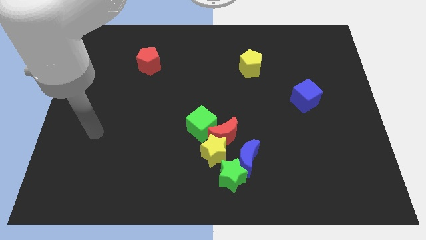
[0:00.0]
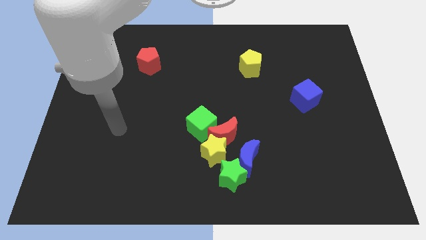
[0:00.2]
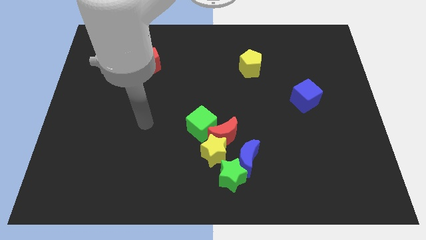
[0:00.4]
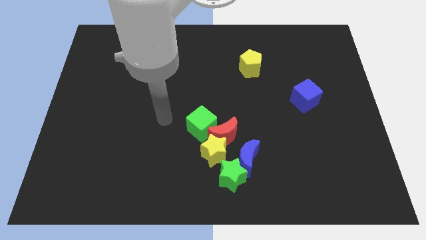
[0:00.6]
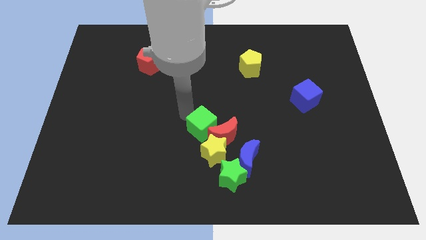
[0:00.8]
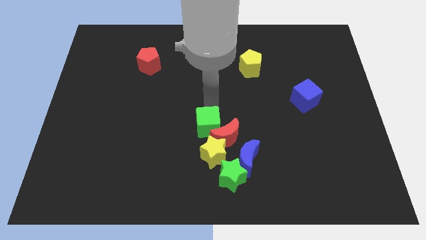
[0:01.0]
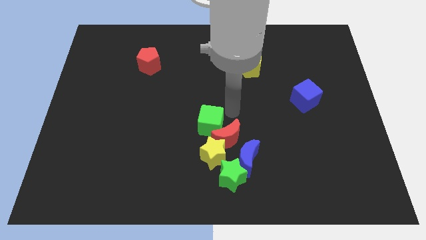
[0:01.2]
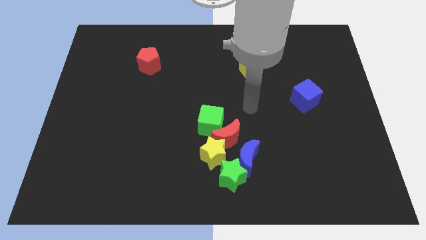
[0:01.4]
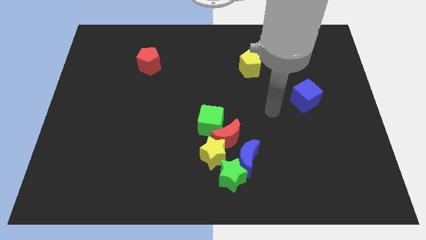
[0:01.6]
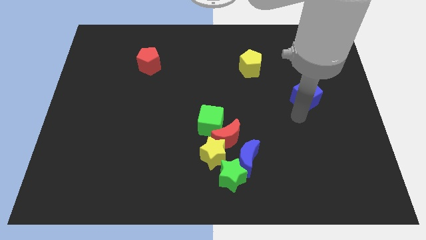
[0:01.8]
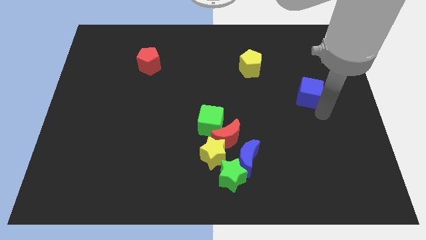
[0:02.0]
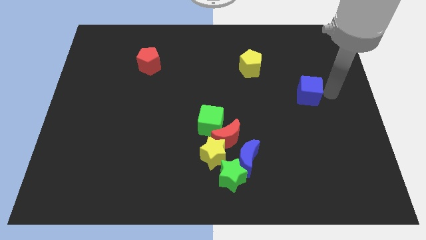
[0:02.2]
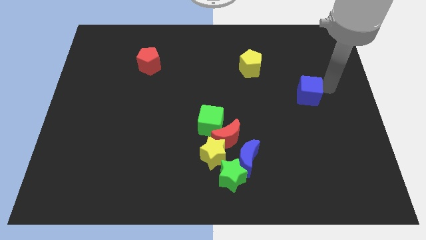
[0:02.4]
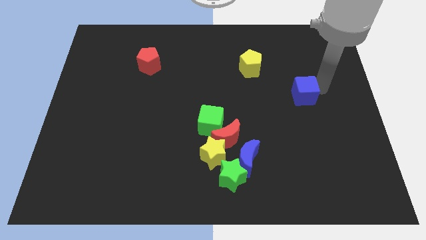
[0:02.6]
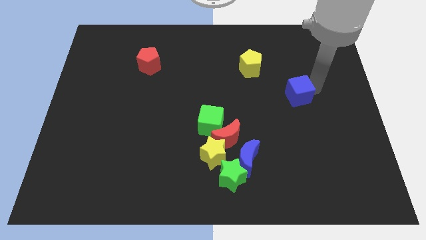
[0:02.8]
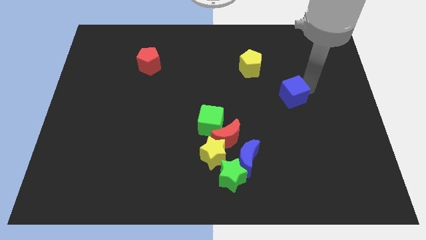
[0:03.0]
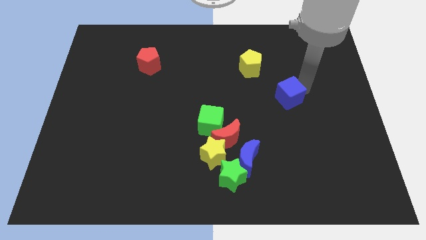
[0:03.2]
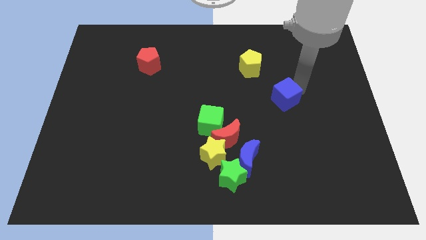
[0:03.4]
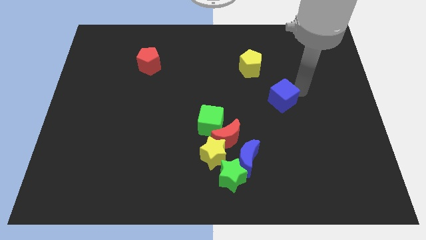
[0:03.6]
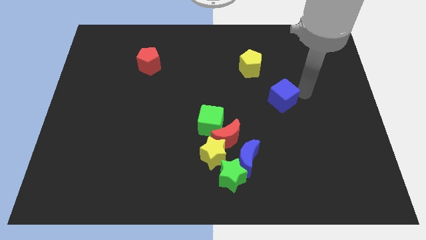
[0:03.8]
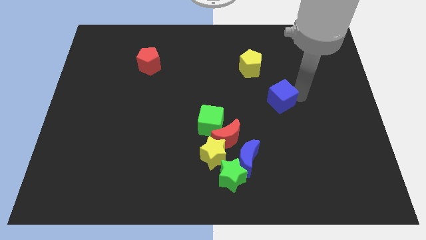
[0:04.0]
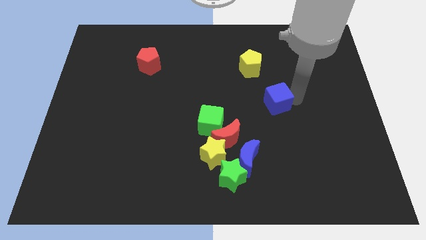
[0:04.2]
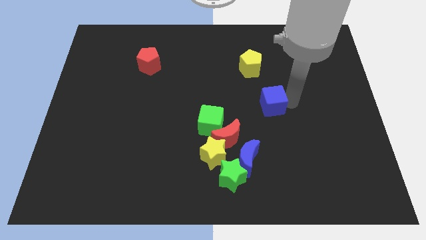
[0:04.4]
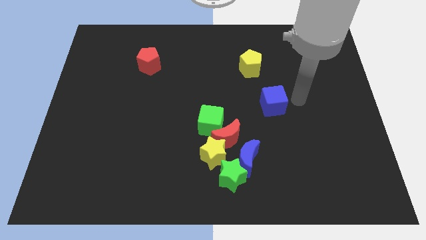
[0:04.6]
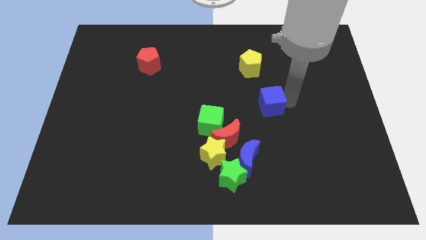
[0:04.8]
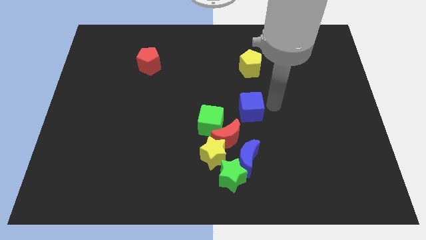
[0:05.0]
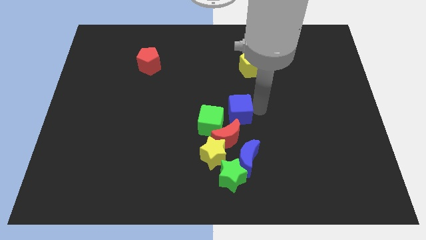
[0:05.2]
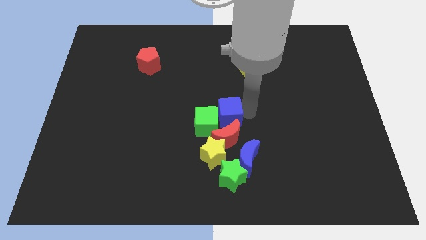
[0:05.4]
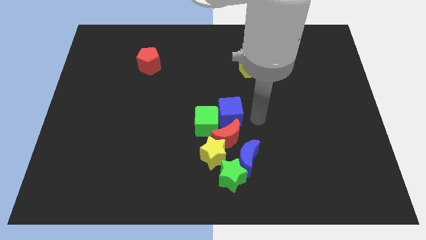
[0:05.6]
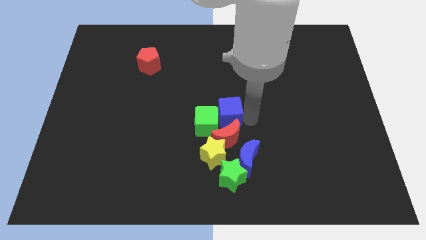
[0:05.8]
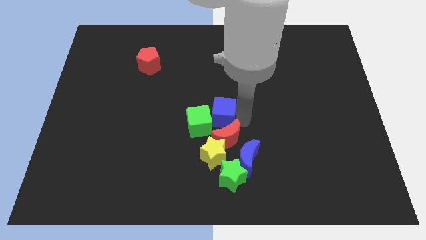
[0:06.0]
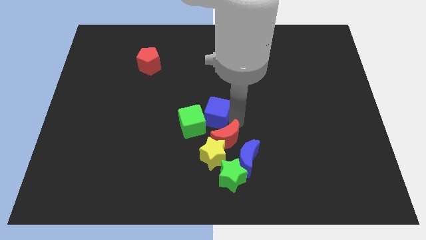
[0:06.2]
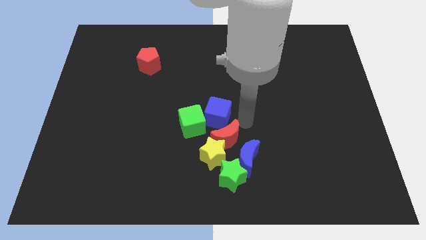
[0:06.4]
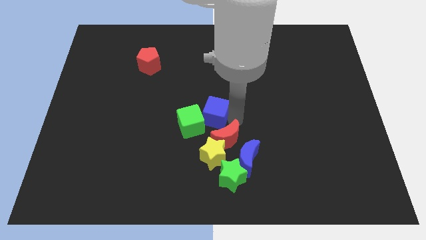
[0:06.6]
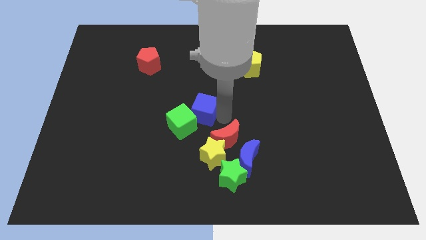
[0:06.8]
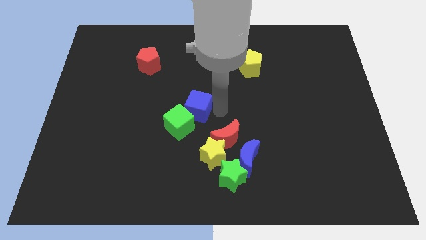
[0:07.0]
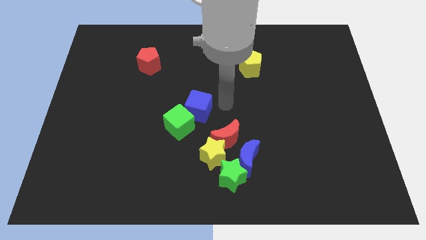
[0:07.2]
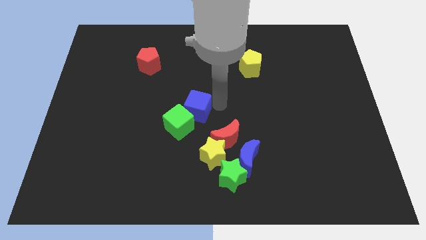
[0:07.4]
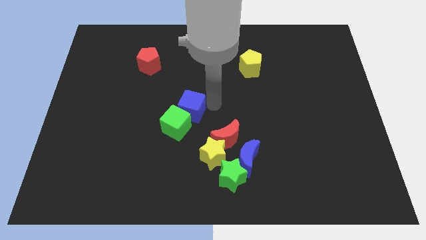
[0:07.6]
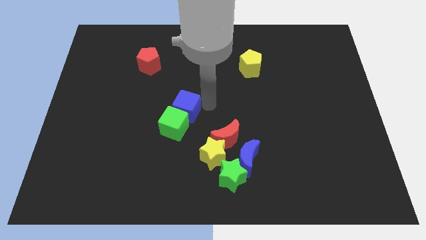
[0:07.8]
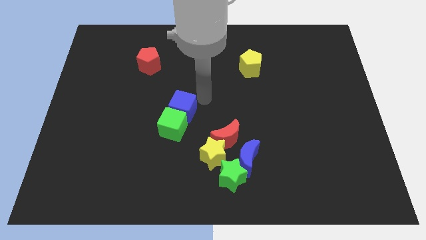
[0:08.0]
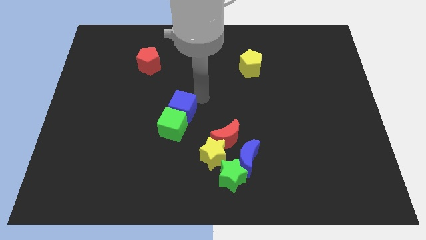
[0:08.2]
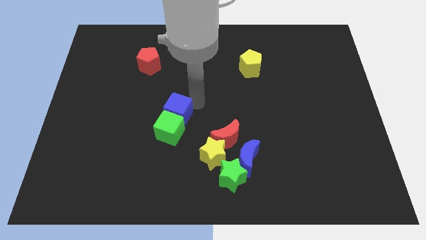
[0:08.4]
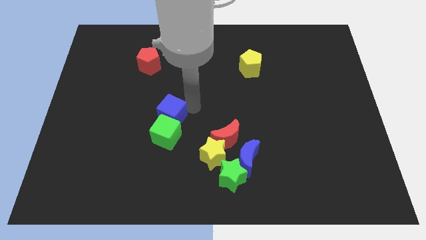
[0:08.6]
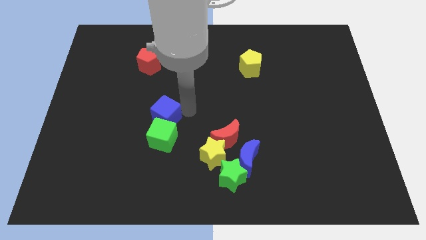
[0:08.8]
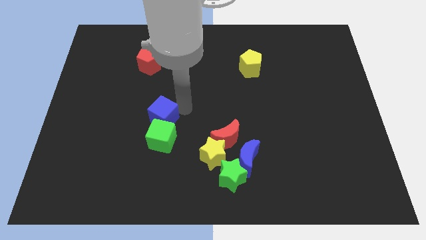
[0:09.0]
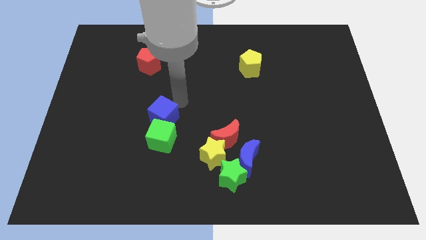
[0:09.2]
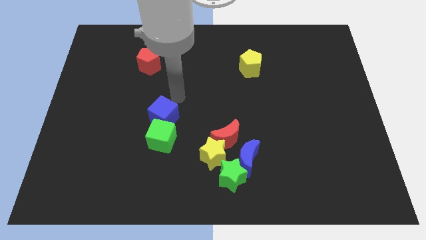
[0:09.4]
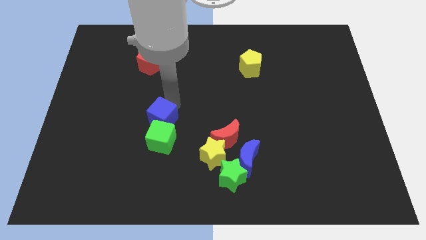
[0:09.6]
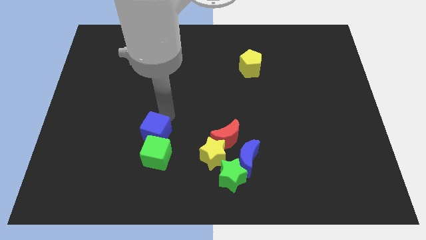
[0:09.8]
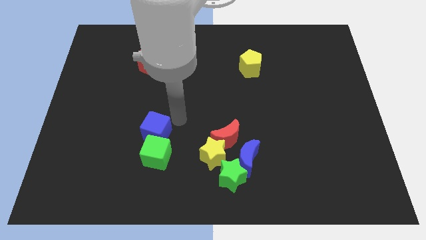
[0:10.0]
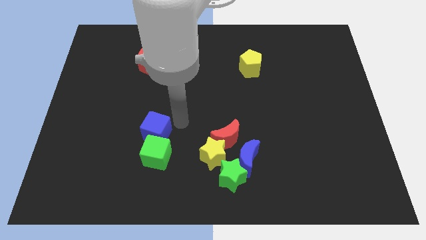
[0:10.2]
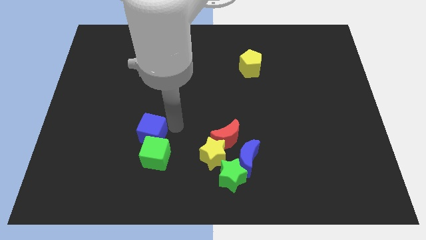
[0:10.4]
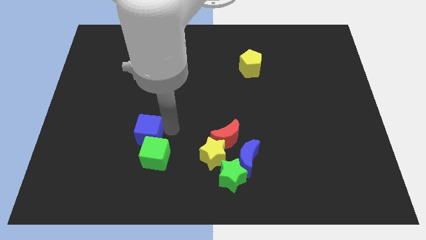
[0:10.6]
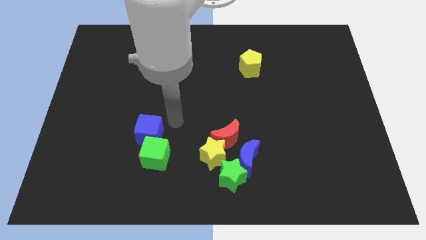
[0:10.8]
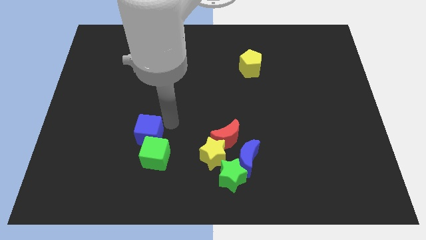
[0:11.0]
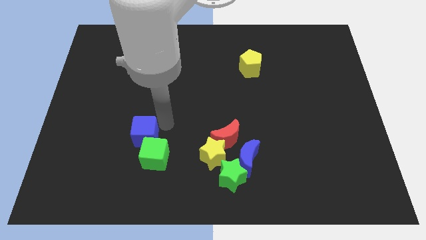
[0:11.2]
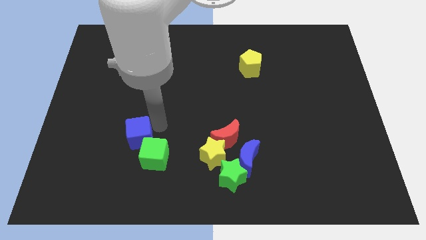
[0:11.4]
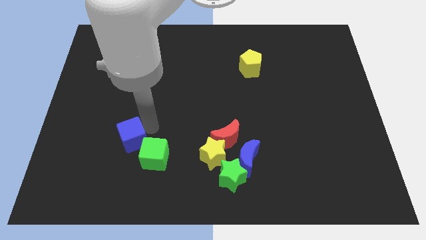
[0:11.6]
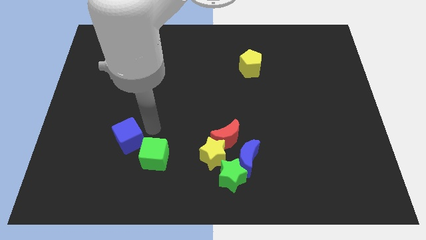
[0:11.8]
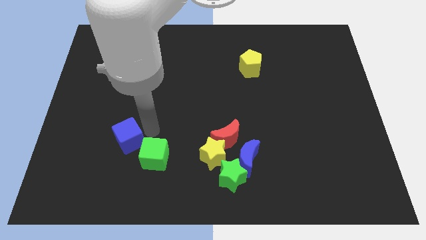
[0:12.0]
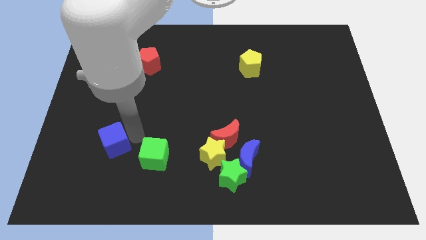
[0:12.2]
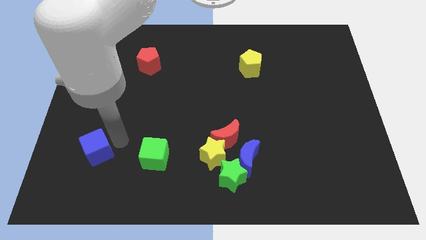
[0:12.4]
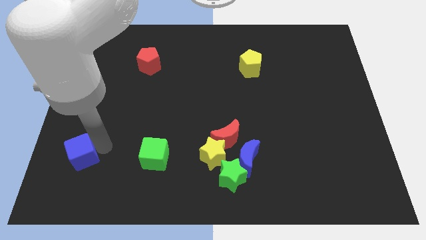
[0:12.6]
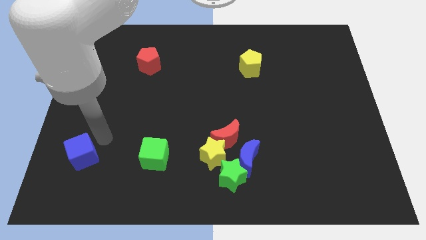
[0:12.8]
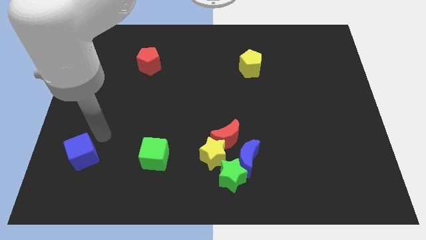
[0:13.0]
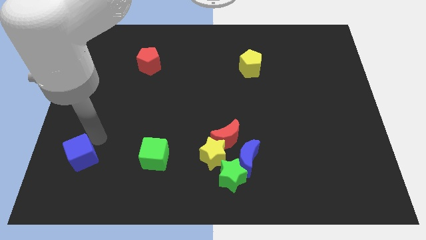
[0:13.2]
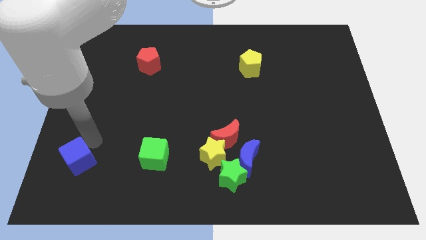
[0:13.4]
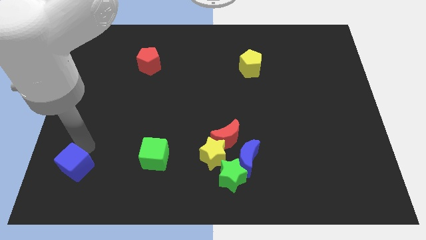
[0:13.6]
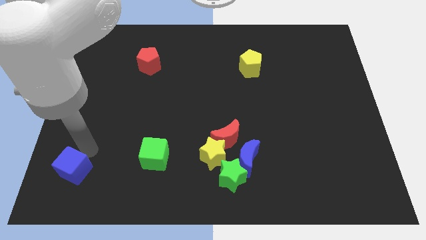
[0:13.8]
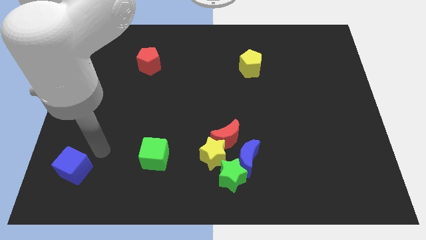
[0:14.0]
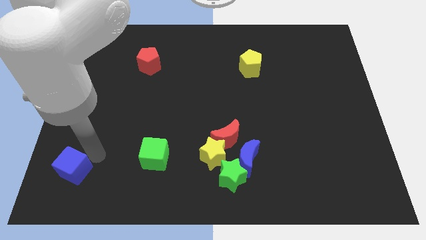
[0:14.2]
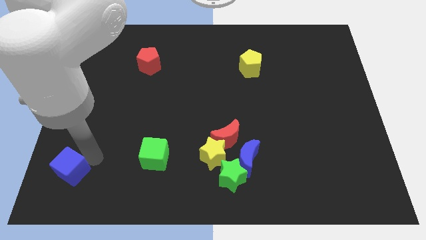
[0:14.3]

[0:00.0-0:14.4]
push the blue cube to the bottom left of the board
